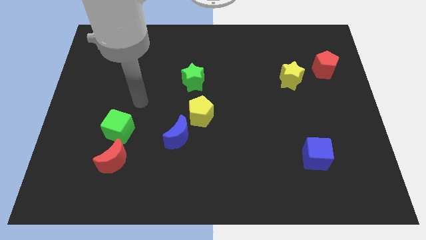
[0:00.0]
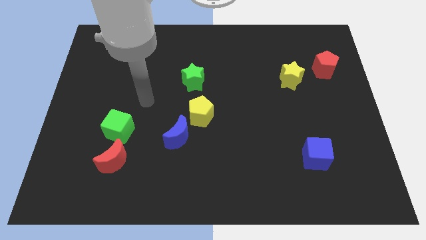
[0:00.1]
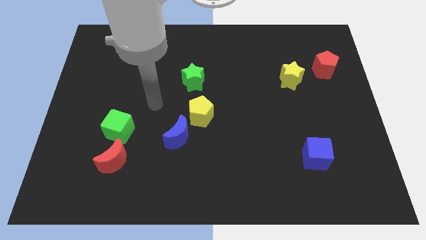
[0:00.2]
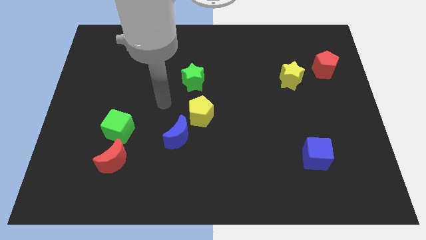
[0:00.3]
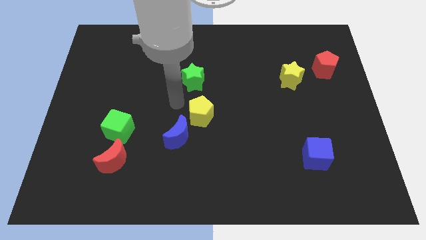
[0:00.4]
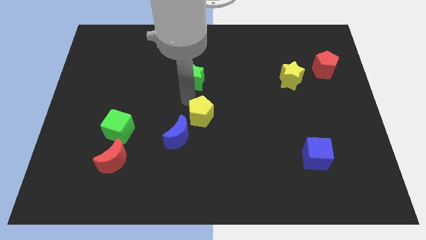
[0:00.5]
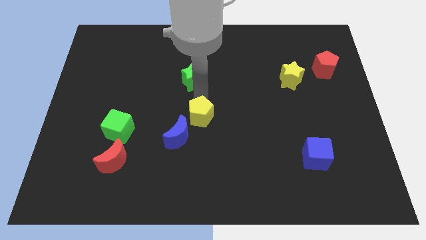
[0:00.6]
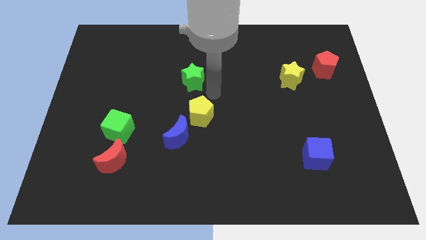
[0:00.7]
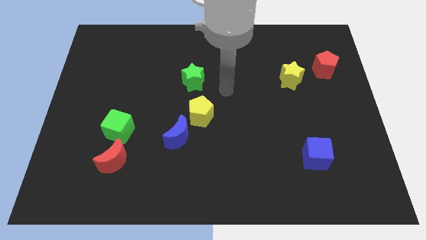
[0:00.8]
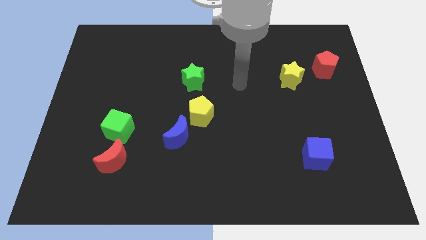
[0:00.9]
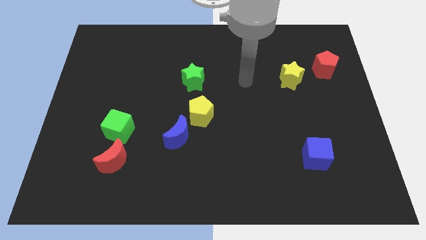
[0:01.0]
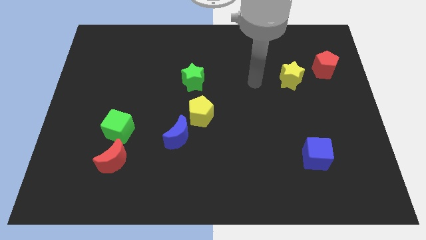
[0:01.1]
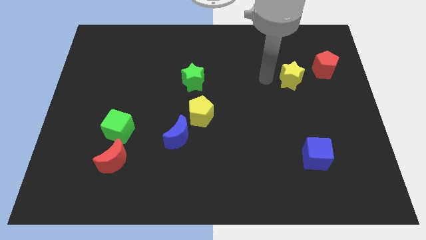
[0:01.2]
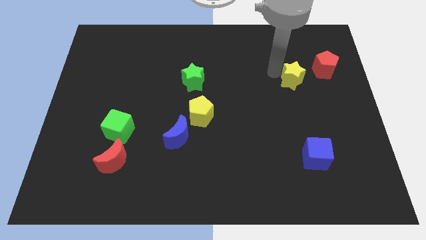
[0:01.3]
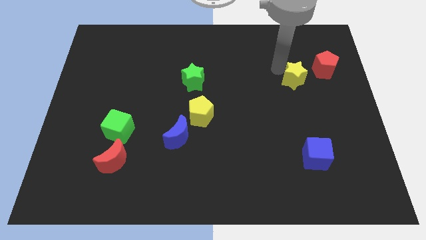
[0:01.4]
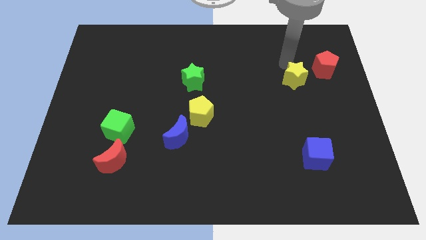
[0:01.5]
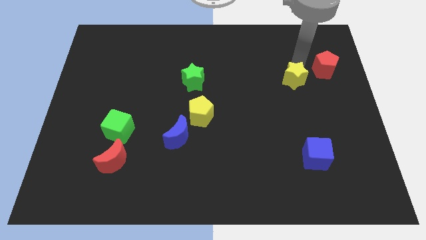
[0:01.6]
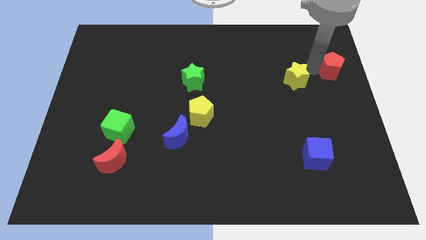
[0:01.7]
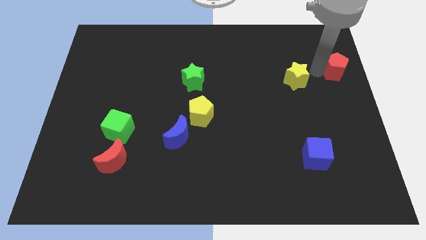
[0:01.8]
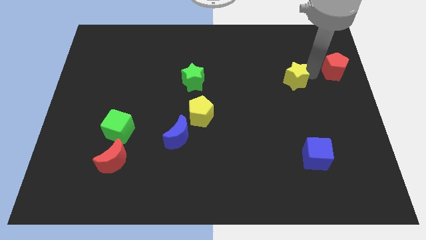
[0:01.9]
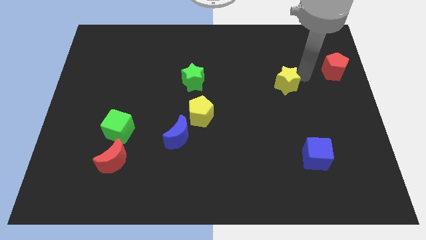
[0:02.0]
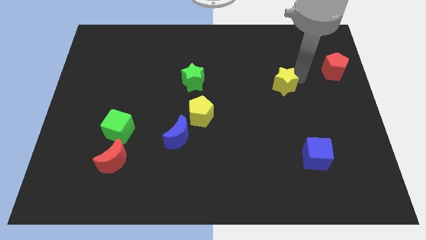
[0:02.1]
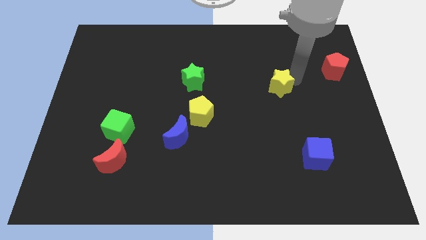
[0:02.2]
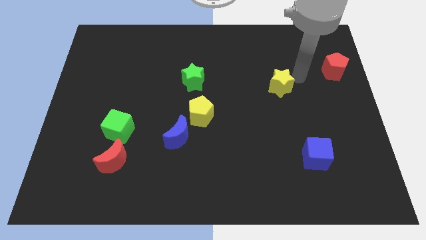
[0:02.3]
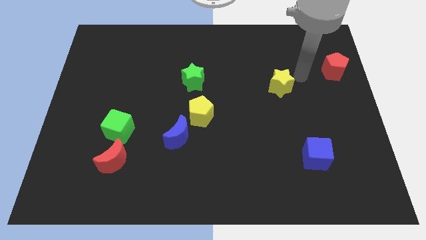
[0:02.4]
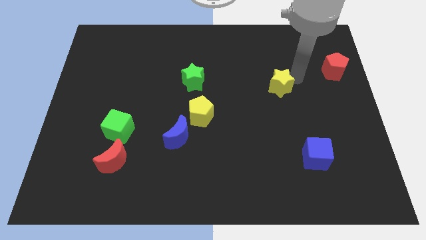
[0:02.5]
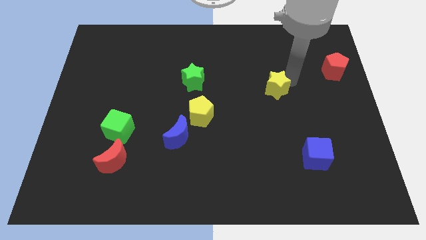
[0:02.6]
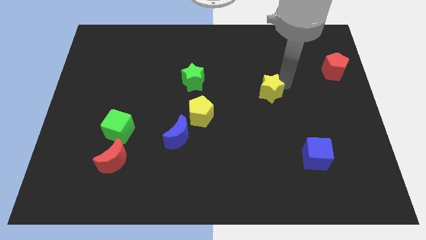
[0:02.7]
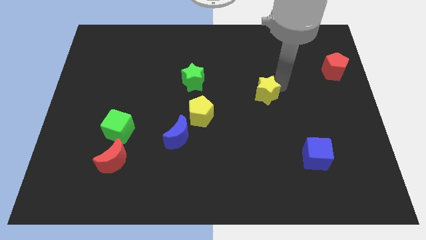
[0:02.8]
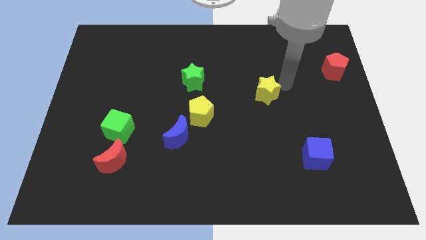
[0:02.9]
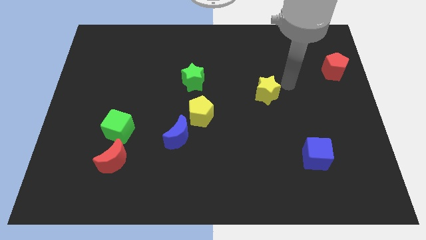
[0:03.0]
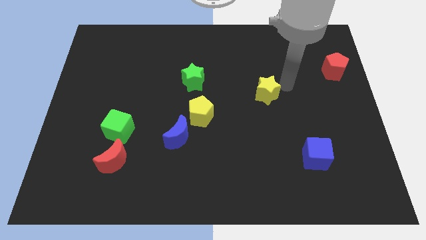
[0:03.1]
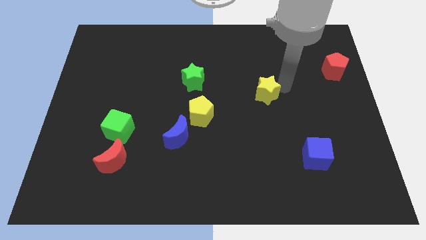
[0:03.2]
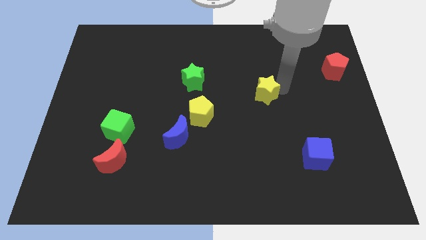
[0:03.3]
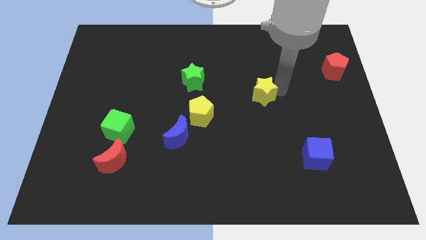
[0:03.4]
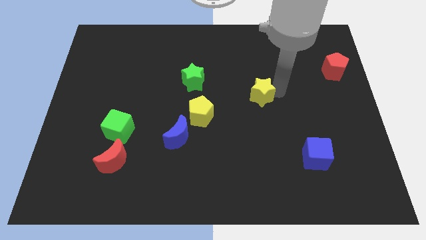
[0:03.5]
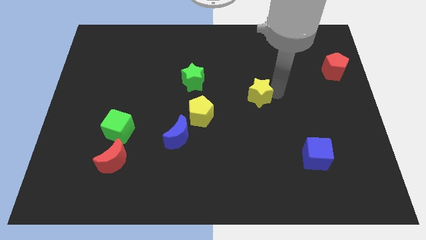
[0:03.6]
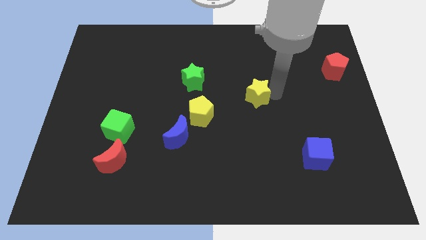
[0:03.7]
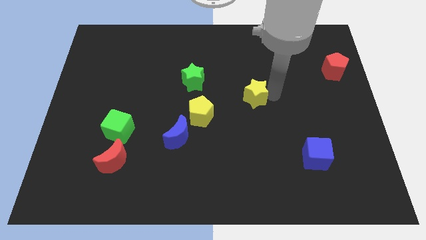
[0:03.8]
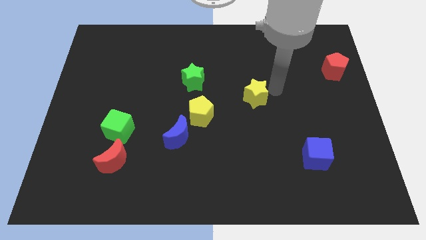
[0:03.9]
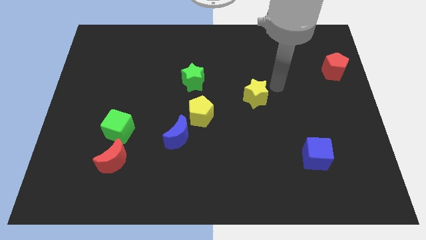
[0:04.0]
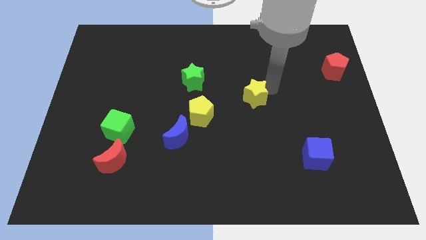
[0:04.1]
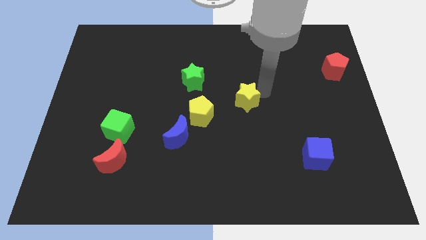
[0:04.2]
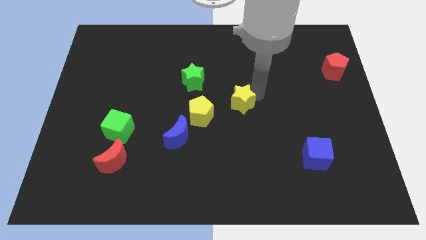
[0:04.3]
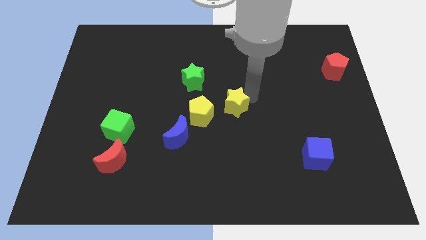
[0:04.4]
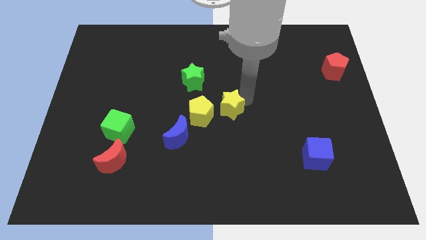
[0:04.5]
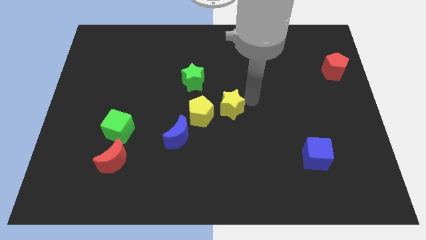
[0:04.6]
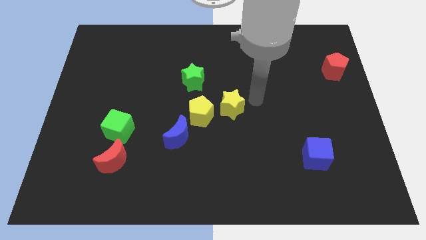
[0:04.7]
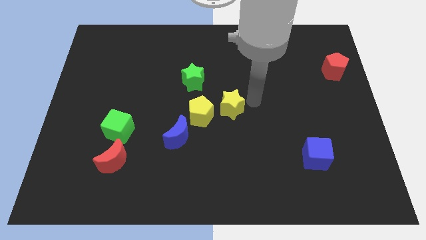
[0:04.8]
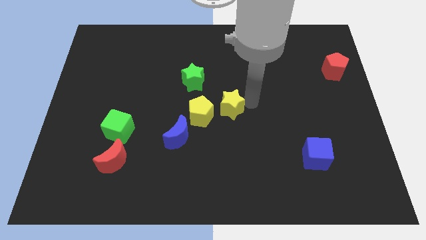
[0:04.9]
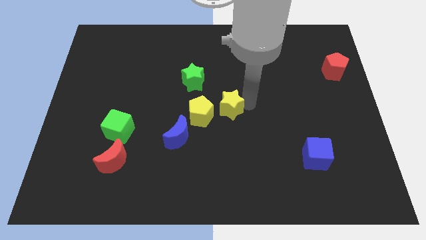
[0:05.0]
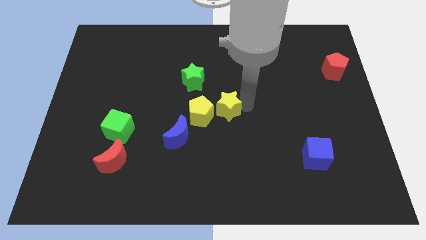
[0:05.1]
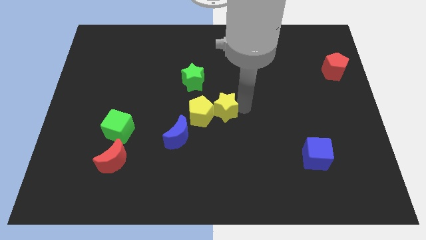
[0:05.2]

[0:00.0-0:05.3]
put the yellow star next to the yellow pentagon

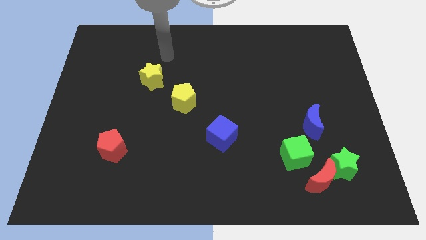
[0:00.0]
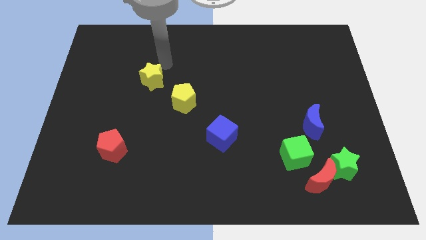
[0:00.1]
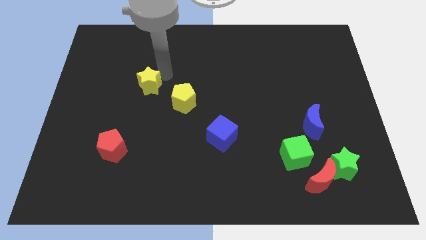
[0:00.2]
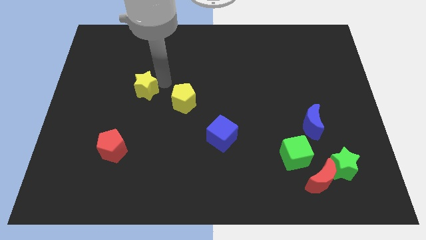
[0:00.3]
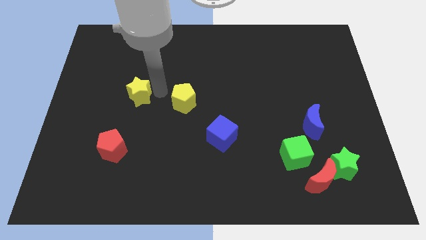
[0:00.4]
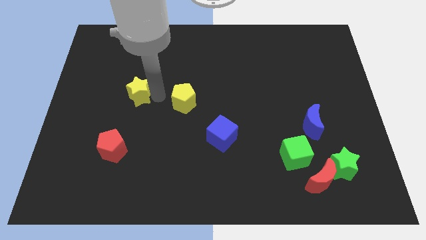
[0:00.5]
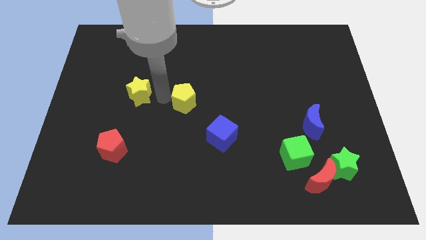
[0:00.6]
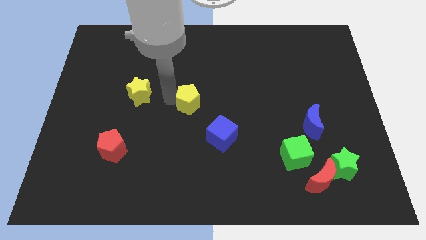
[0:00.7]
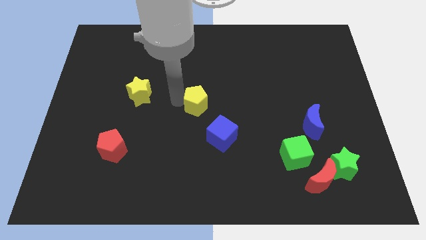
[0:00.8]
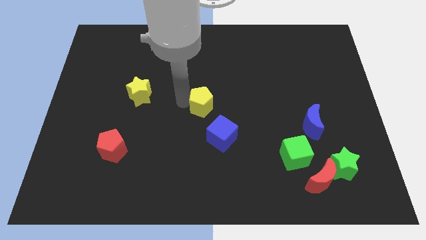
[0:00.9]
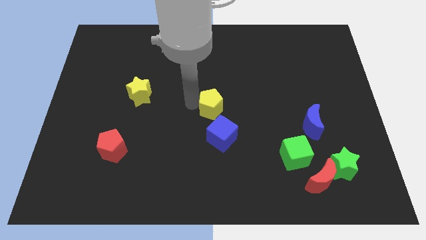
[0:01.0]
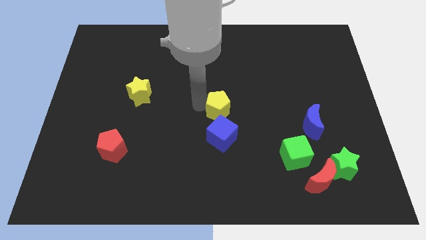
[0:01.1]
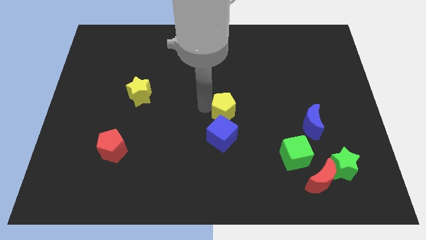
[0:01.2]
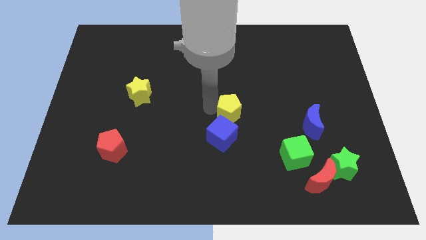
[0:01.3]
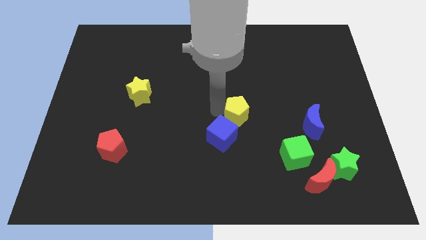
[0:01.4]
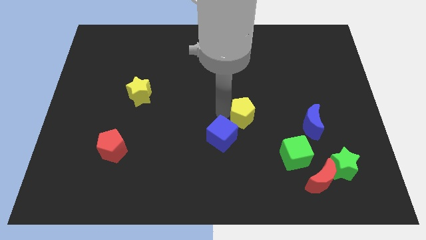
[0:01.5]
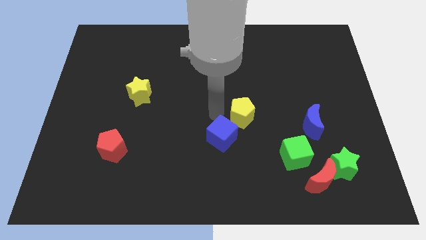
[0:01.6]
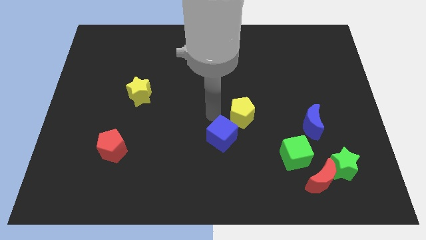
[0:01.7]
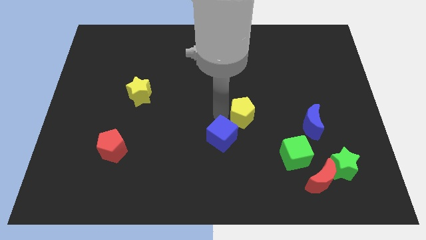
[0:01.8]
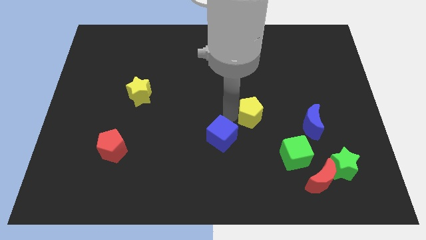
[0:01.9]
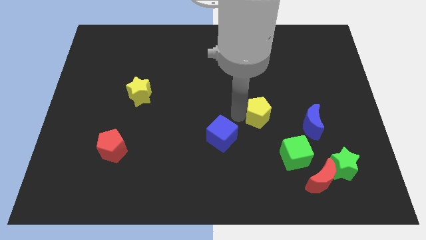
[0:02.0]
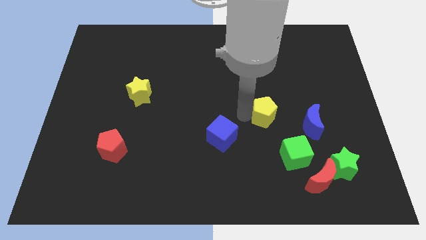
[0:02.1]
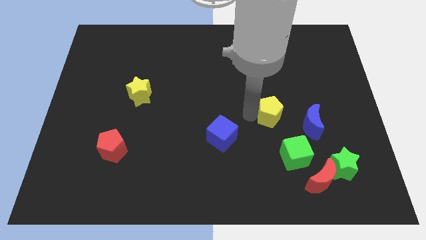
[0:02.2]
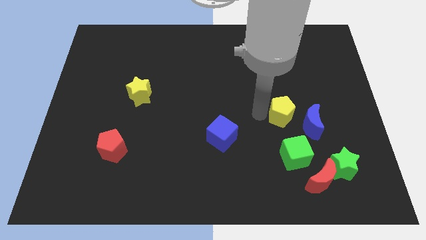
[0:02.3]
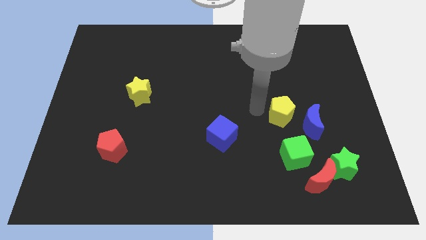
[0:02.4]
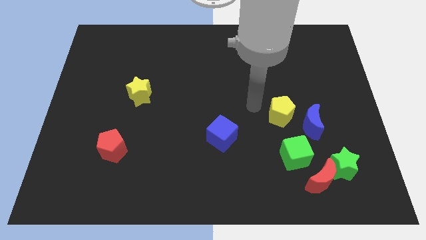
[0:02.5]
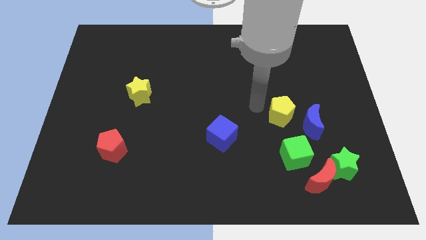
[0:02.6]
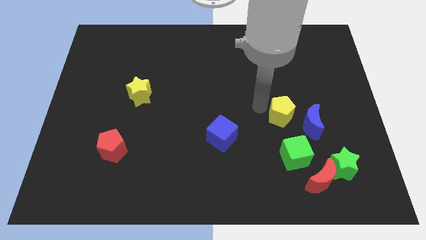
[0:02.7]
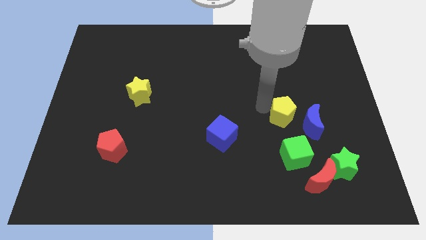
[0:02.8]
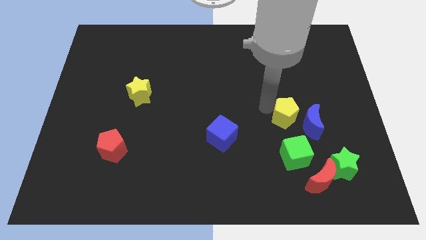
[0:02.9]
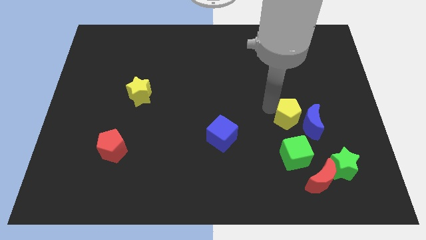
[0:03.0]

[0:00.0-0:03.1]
move the yellow pentagon close to the blue moon
